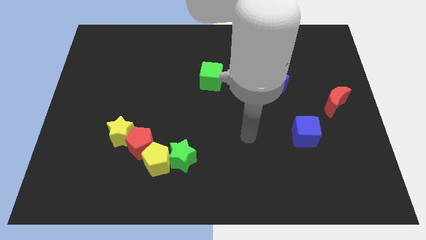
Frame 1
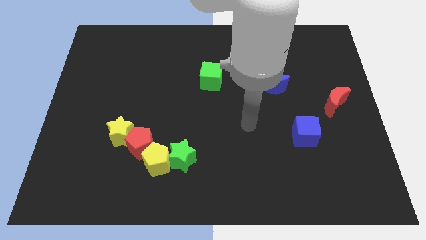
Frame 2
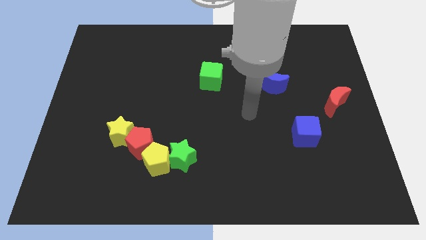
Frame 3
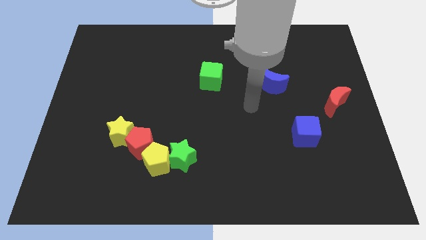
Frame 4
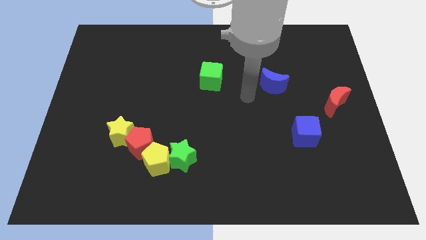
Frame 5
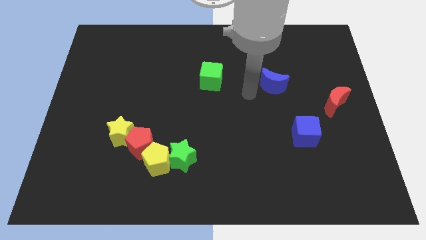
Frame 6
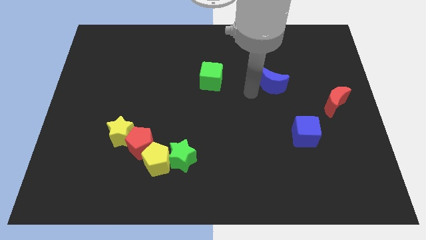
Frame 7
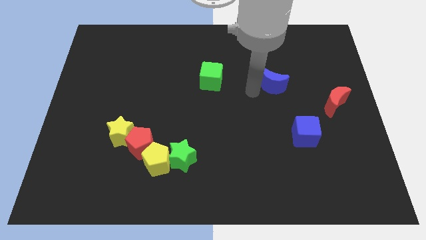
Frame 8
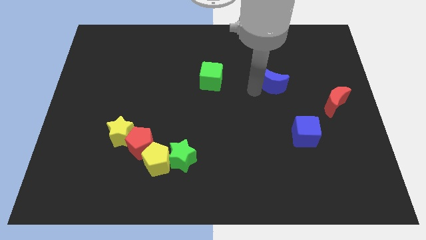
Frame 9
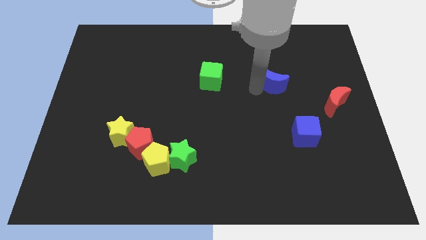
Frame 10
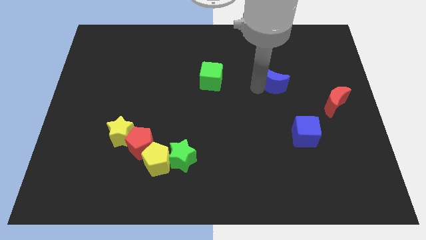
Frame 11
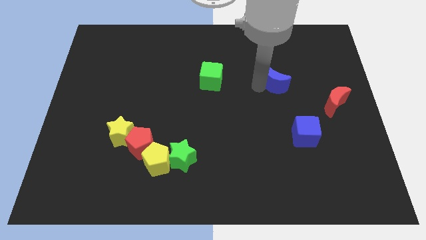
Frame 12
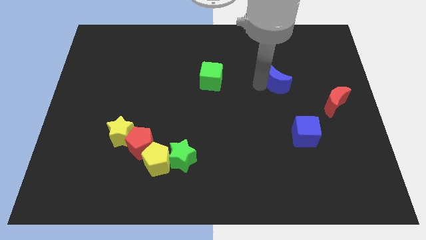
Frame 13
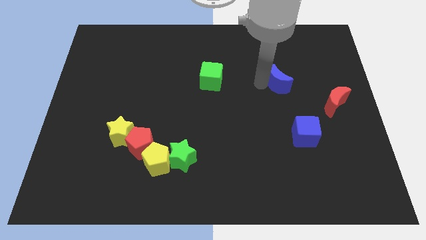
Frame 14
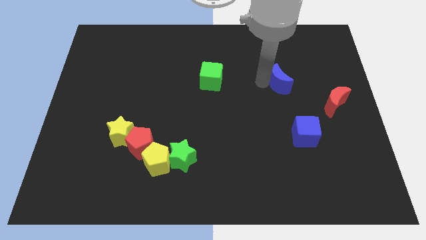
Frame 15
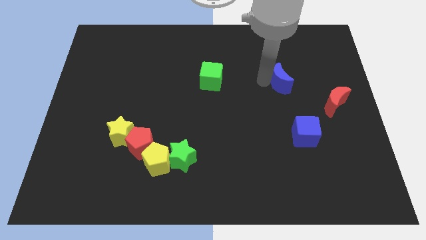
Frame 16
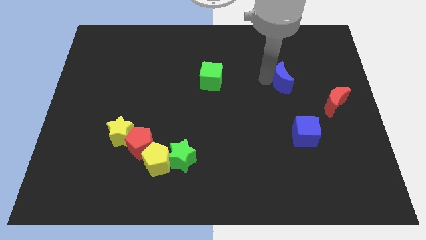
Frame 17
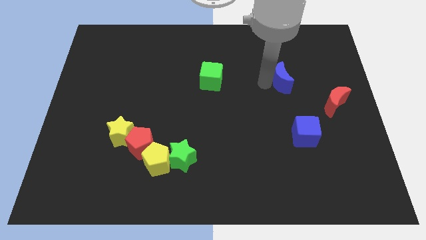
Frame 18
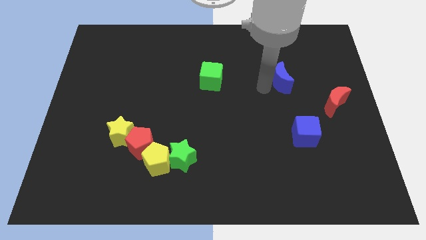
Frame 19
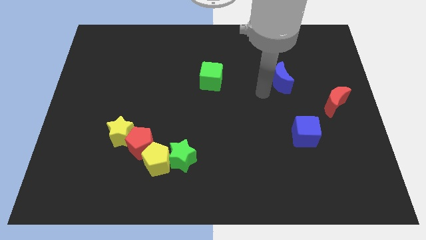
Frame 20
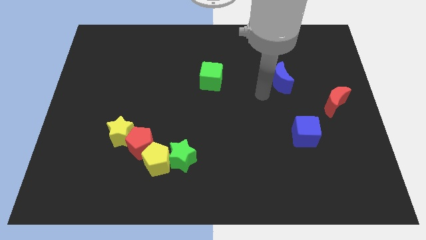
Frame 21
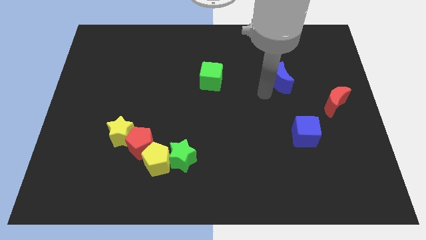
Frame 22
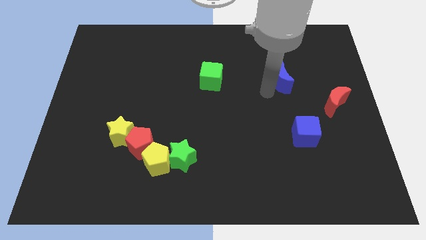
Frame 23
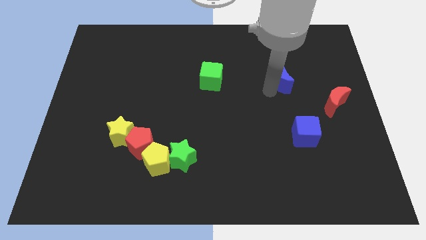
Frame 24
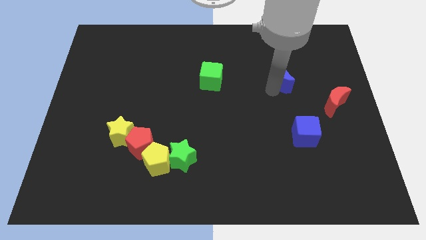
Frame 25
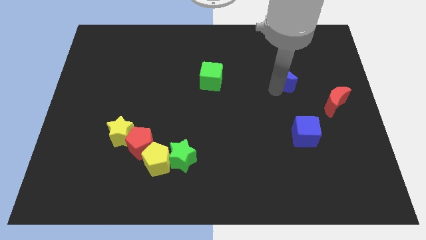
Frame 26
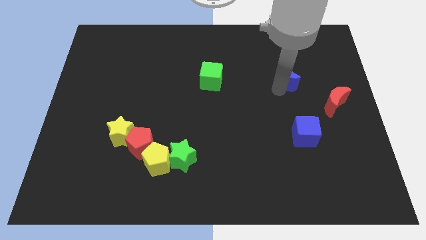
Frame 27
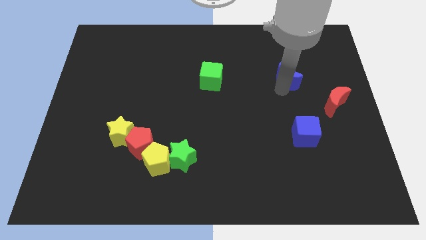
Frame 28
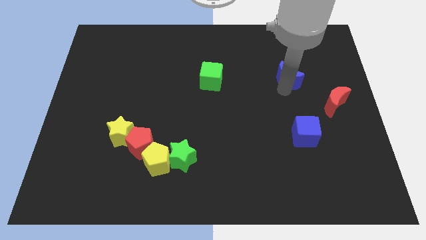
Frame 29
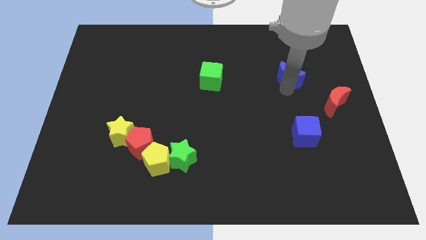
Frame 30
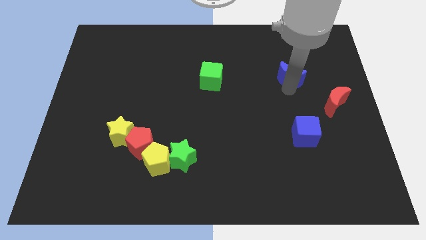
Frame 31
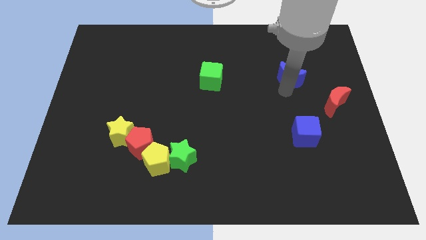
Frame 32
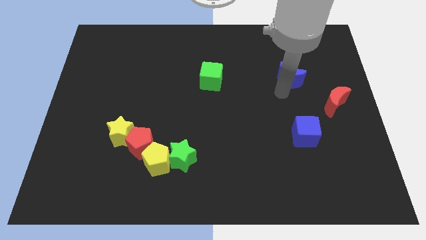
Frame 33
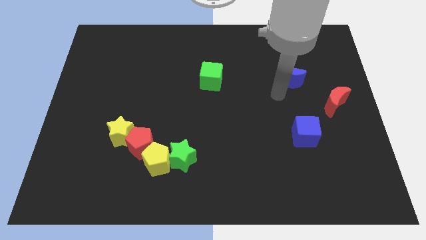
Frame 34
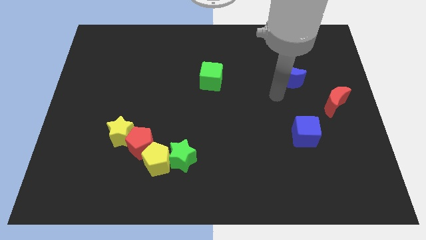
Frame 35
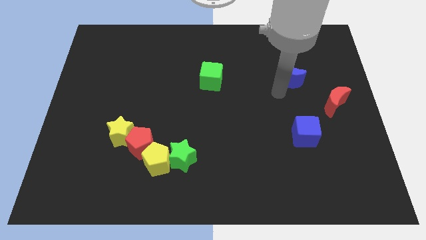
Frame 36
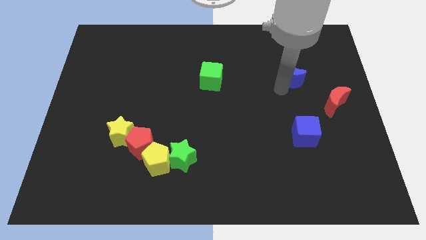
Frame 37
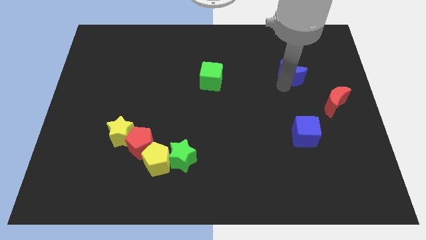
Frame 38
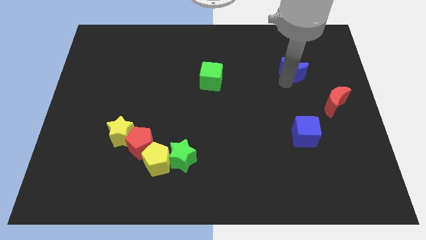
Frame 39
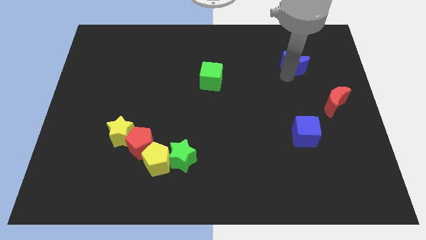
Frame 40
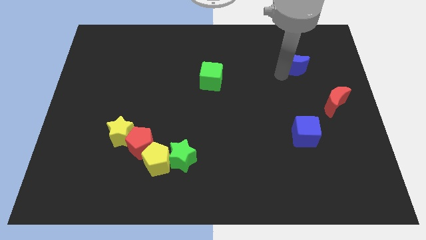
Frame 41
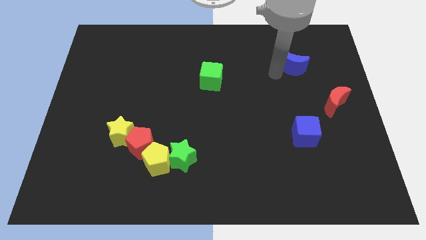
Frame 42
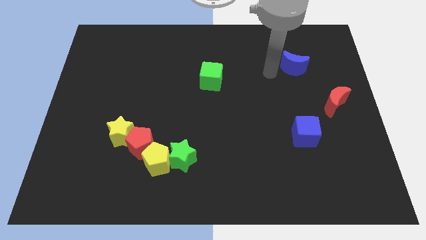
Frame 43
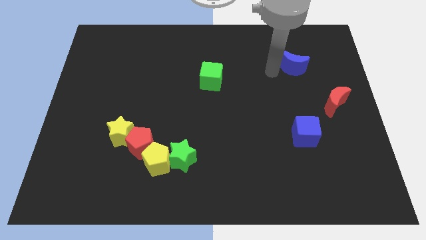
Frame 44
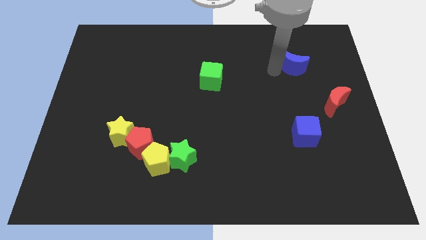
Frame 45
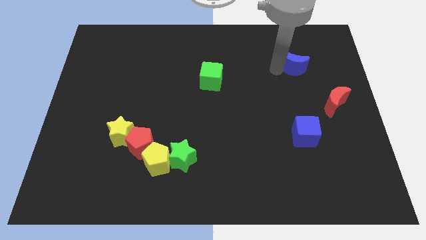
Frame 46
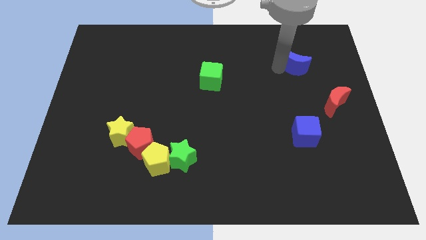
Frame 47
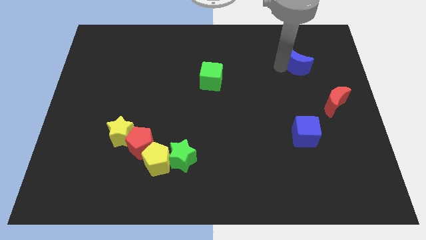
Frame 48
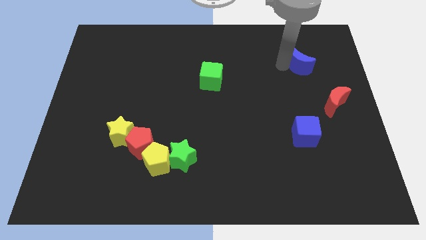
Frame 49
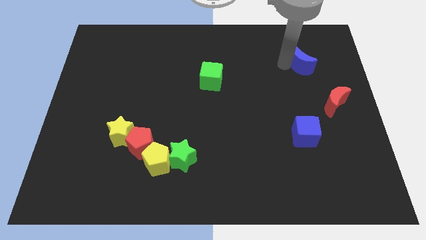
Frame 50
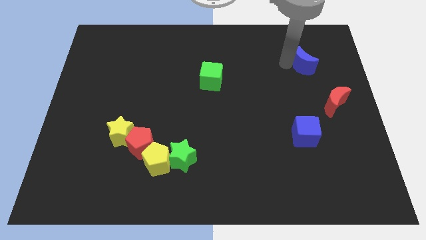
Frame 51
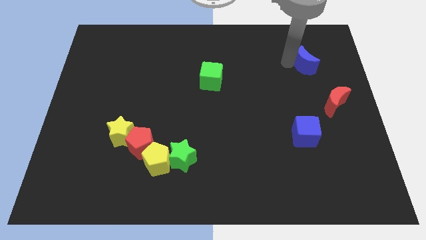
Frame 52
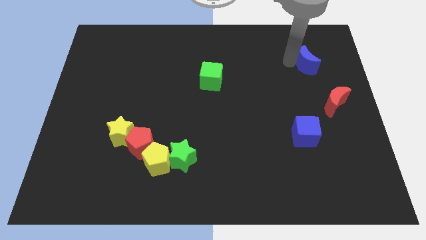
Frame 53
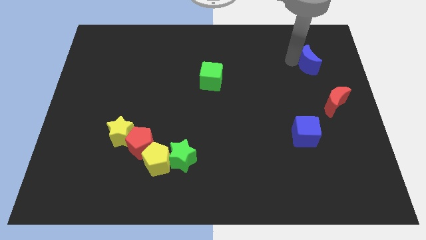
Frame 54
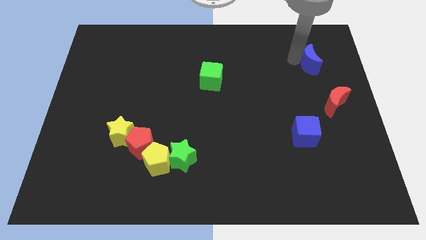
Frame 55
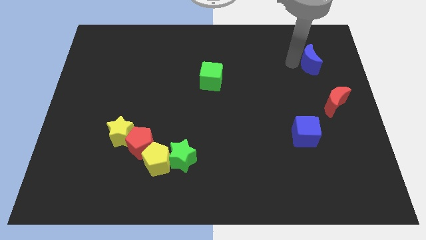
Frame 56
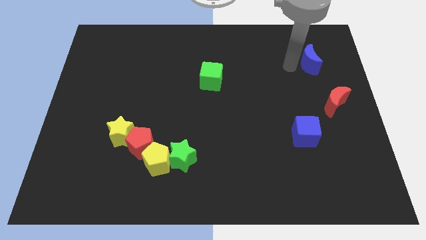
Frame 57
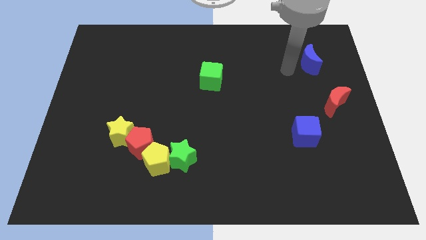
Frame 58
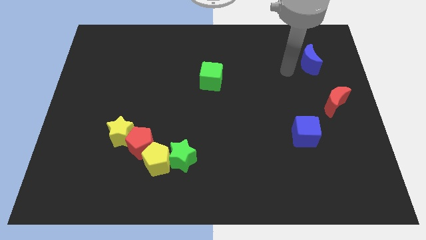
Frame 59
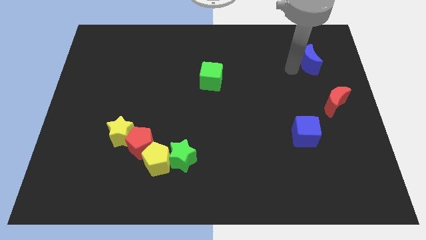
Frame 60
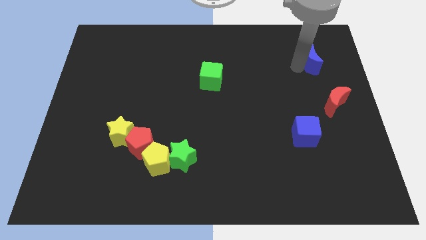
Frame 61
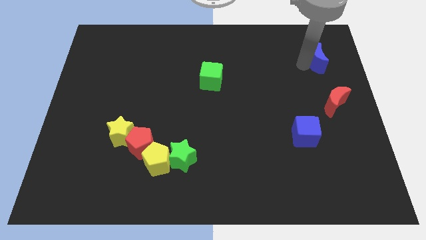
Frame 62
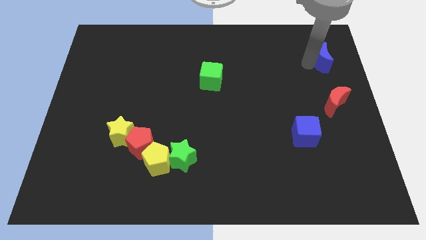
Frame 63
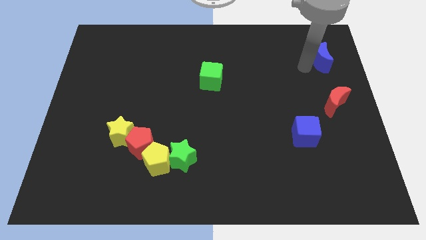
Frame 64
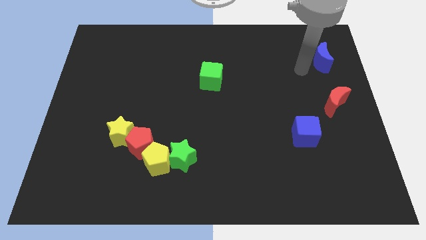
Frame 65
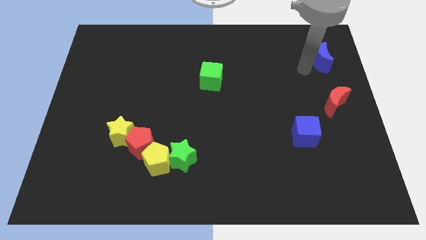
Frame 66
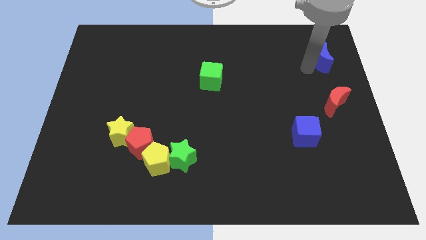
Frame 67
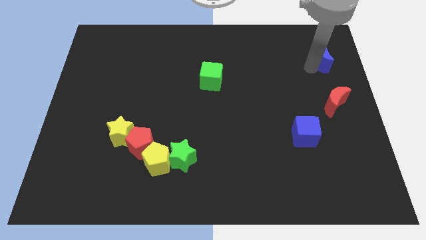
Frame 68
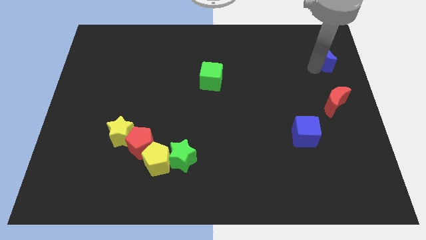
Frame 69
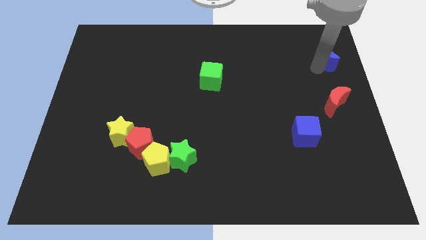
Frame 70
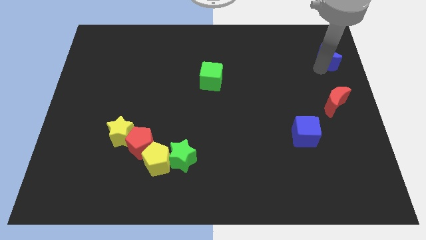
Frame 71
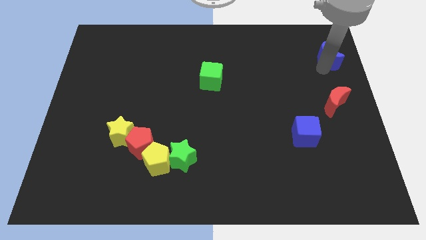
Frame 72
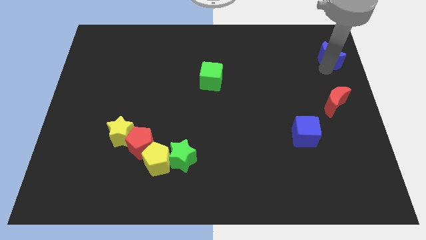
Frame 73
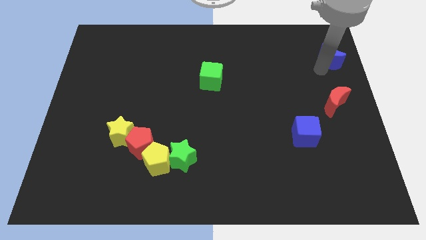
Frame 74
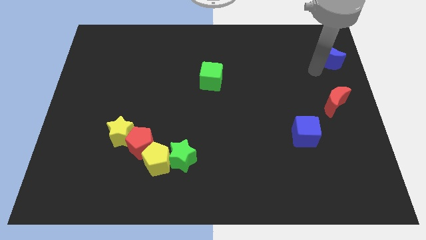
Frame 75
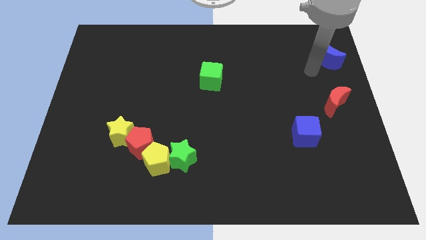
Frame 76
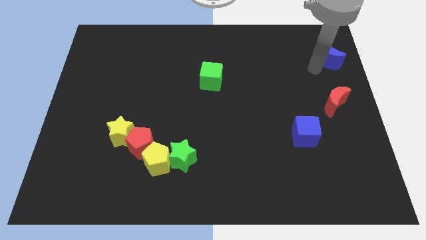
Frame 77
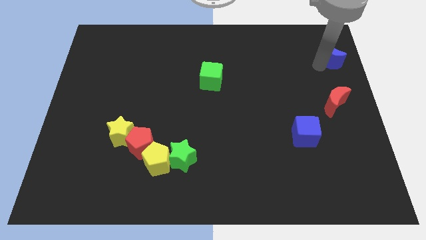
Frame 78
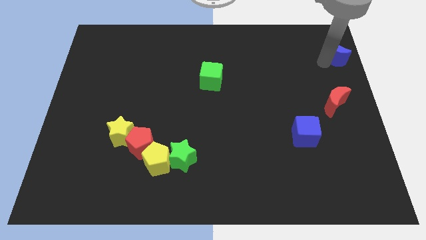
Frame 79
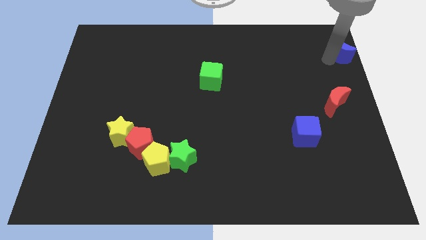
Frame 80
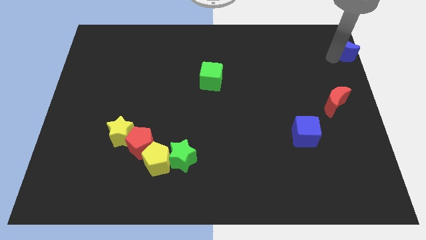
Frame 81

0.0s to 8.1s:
slide the blue moon to the upper right corner
